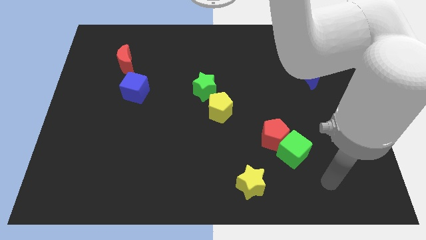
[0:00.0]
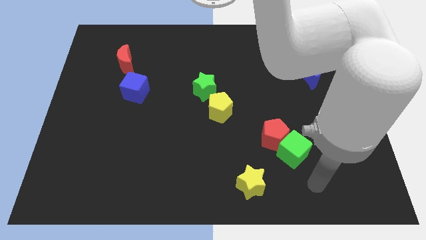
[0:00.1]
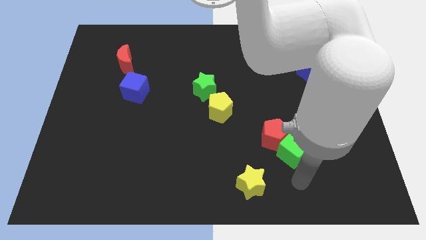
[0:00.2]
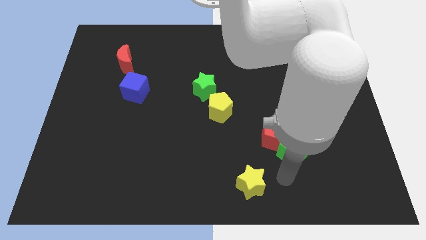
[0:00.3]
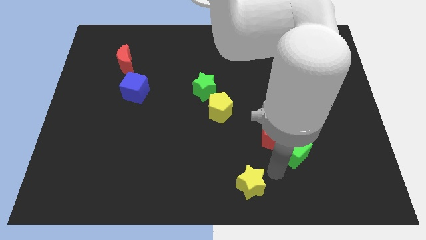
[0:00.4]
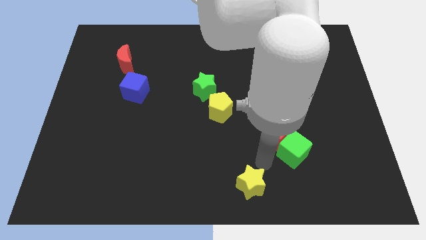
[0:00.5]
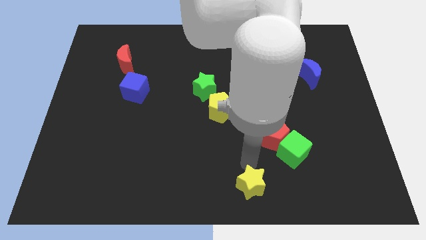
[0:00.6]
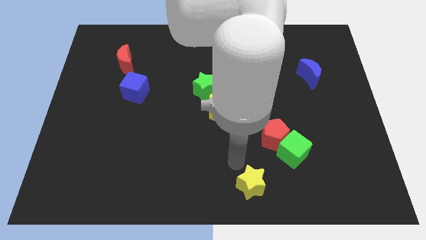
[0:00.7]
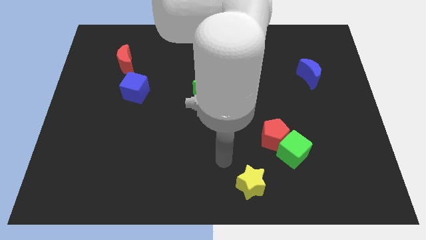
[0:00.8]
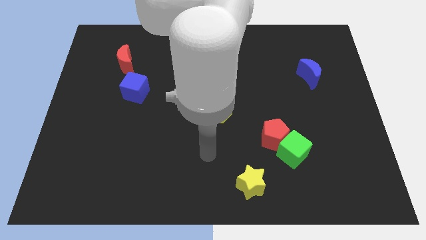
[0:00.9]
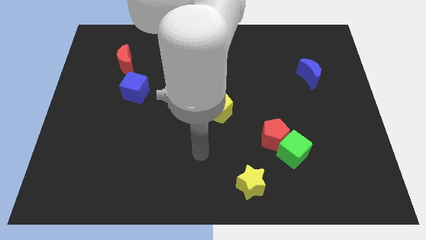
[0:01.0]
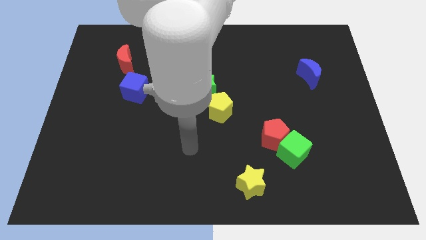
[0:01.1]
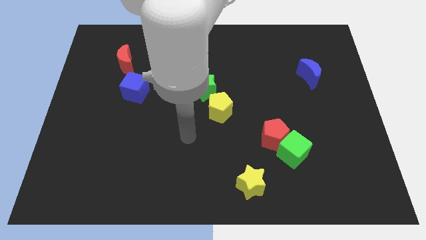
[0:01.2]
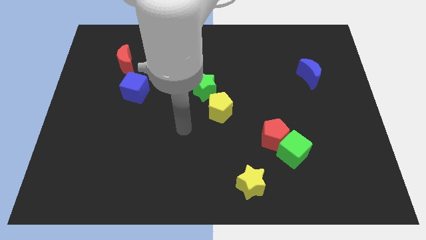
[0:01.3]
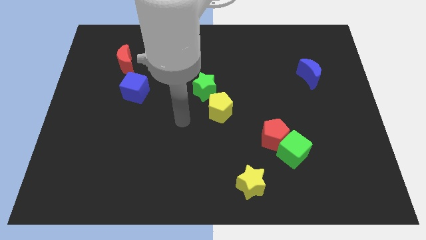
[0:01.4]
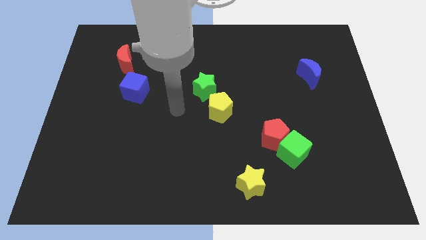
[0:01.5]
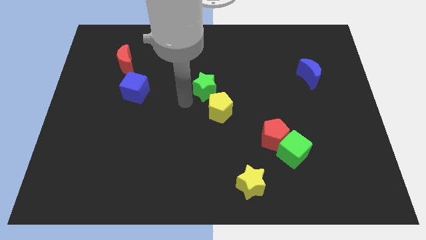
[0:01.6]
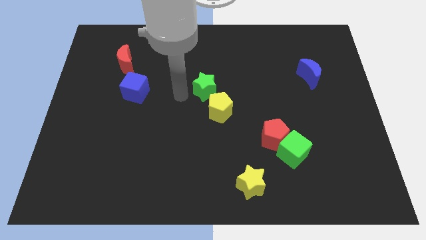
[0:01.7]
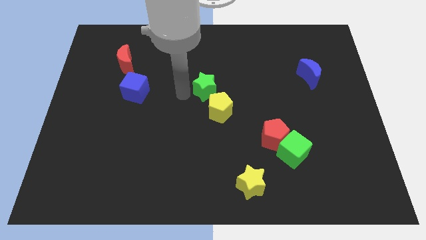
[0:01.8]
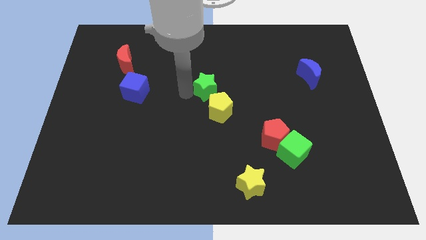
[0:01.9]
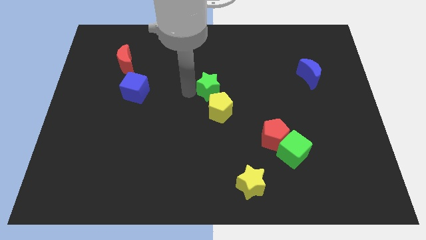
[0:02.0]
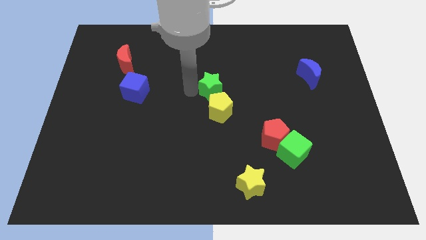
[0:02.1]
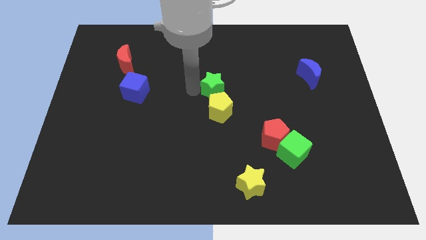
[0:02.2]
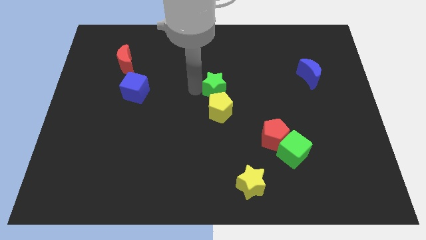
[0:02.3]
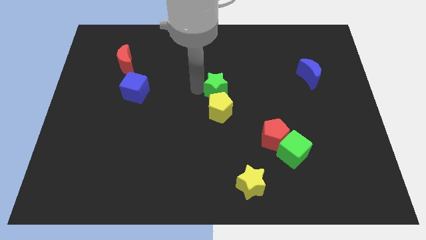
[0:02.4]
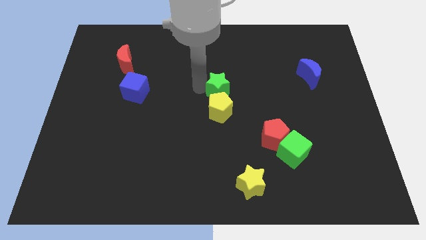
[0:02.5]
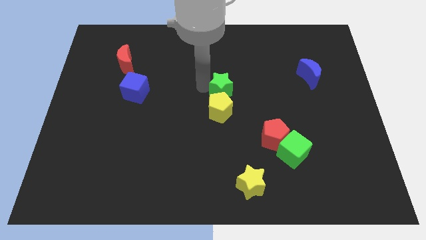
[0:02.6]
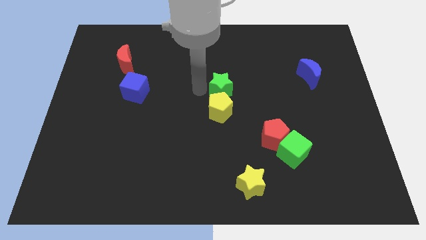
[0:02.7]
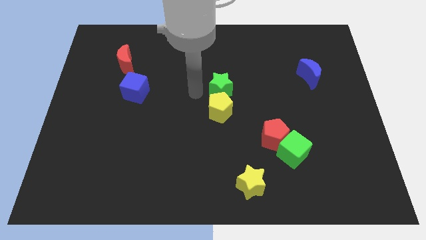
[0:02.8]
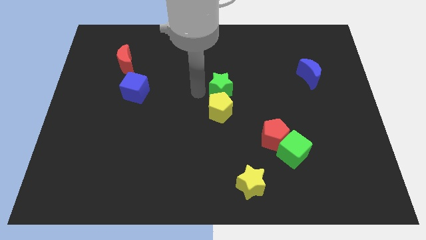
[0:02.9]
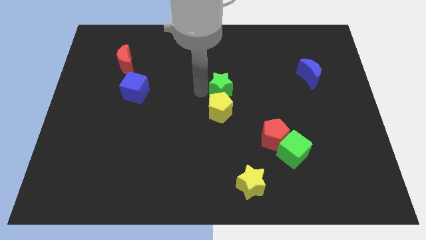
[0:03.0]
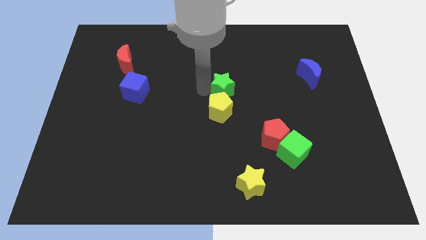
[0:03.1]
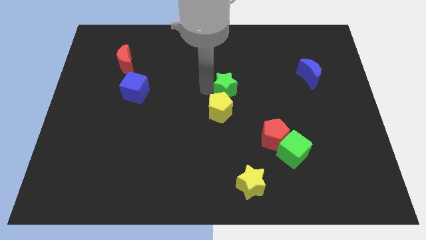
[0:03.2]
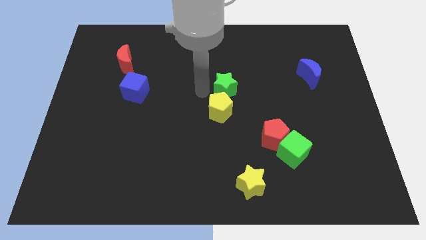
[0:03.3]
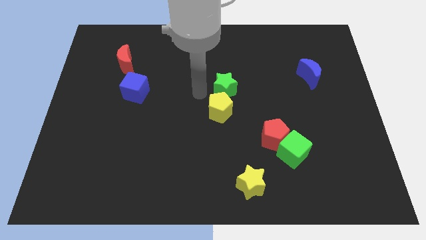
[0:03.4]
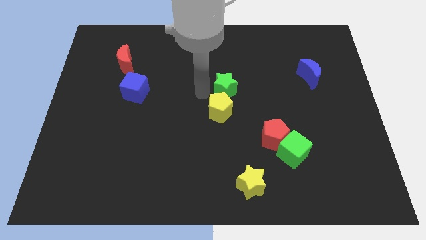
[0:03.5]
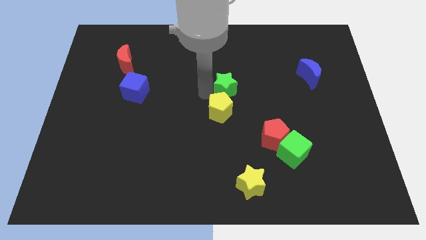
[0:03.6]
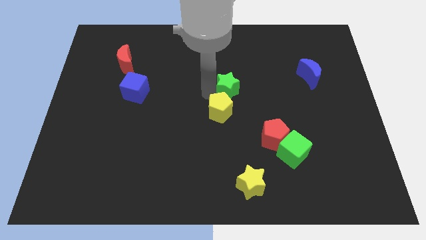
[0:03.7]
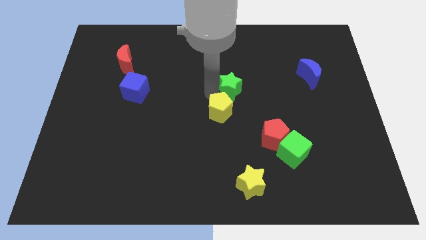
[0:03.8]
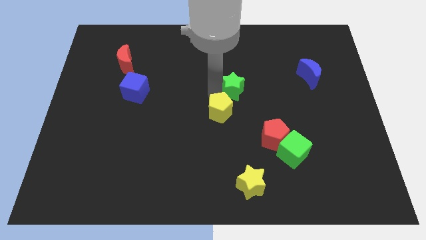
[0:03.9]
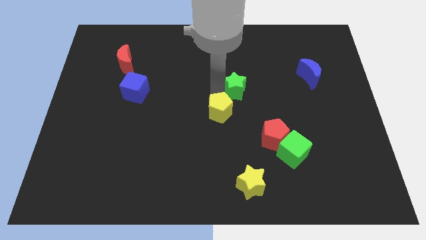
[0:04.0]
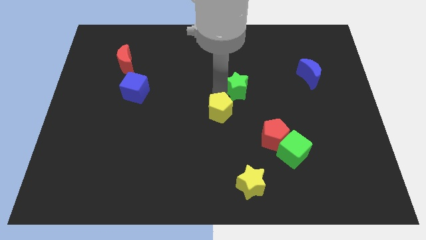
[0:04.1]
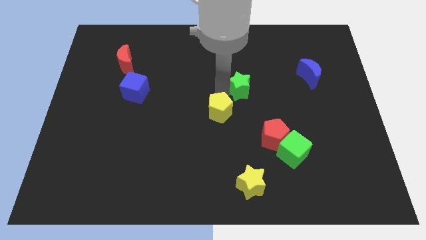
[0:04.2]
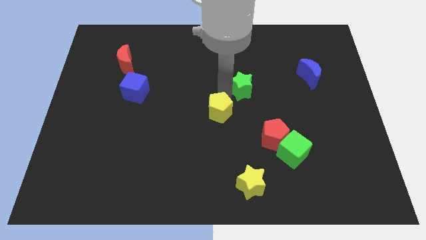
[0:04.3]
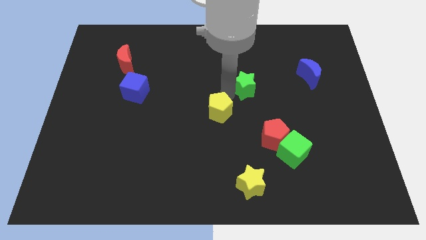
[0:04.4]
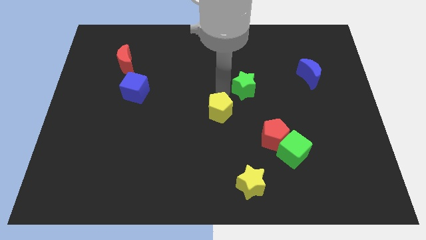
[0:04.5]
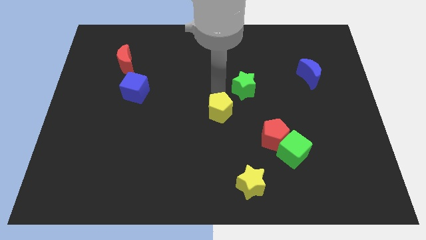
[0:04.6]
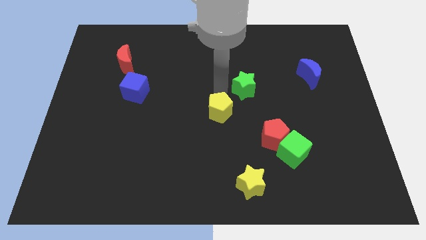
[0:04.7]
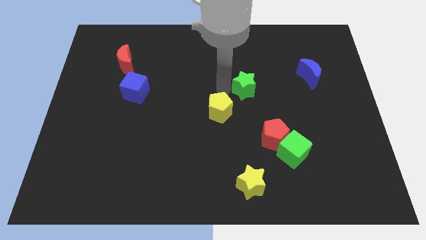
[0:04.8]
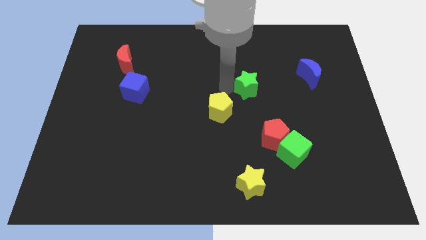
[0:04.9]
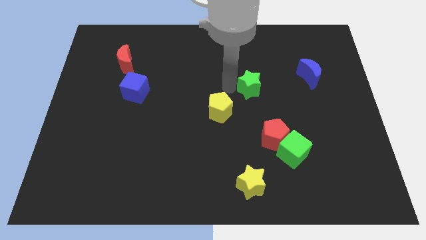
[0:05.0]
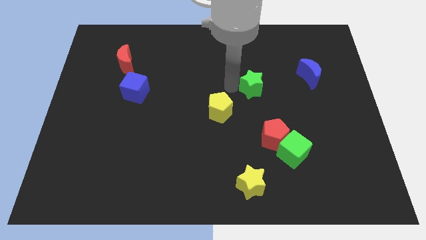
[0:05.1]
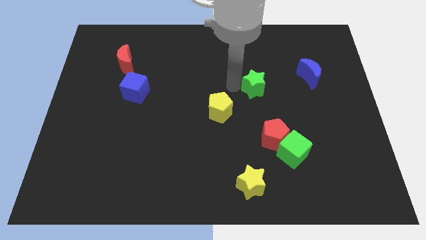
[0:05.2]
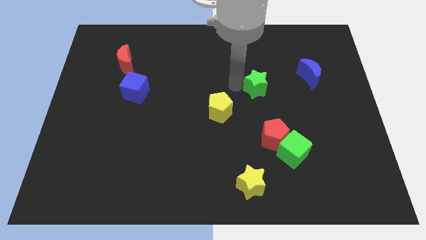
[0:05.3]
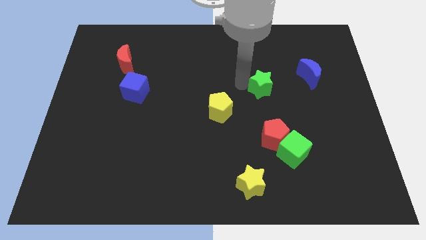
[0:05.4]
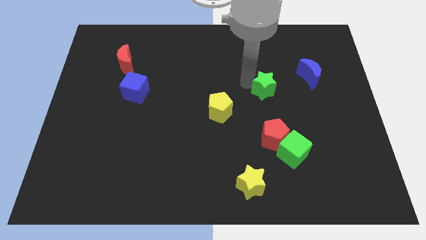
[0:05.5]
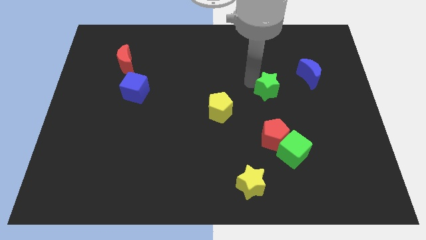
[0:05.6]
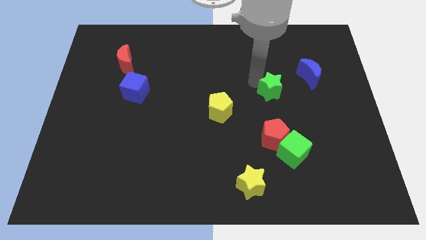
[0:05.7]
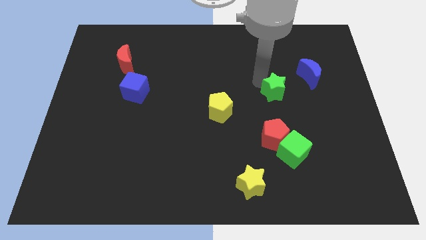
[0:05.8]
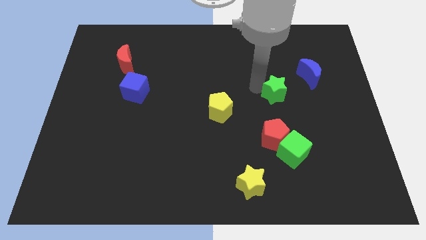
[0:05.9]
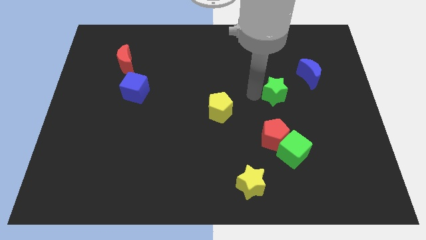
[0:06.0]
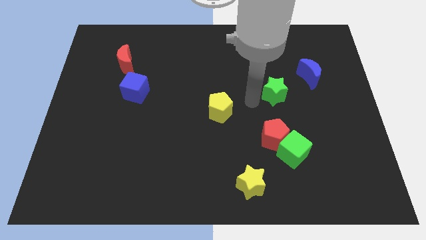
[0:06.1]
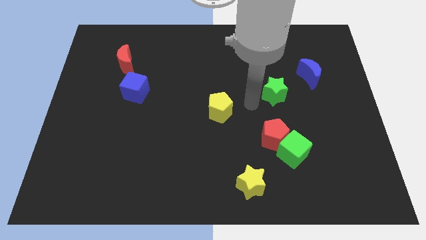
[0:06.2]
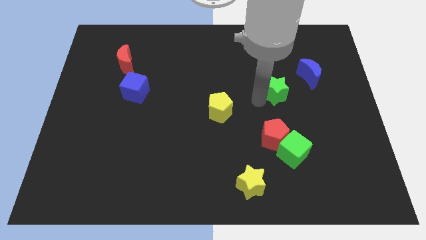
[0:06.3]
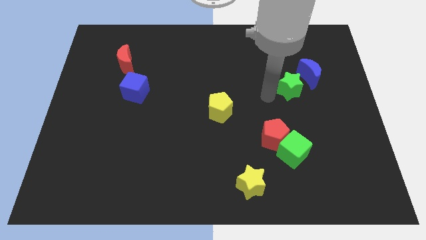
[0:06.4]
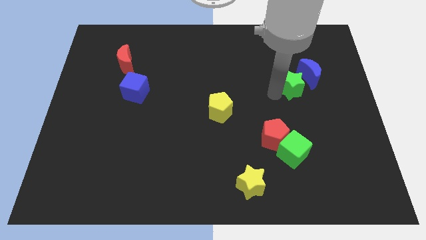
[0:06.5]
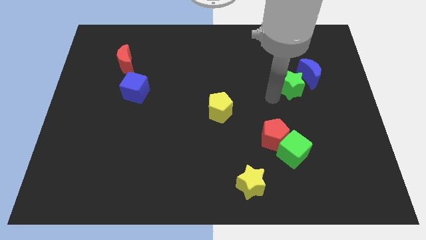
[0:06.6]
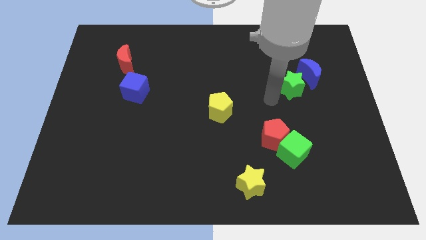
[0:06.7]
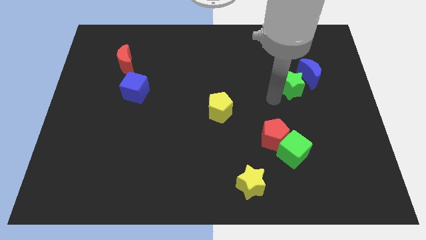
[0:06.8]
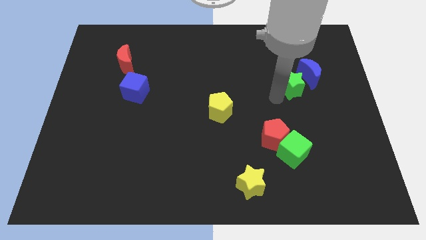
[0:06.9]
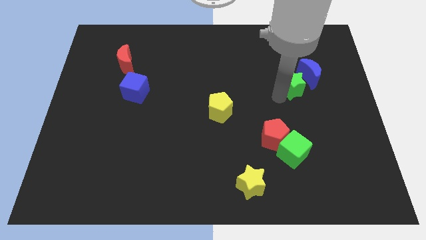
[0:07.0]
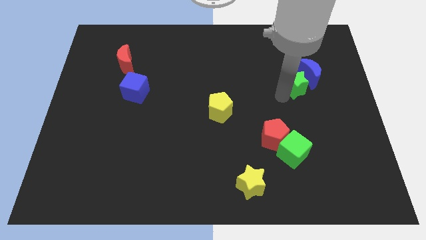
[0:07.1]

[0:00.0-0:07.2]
push the green star next to the blue moon

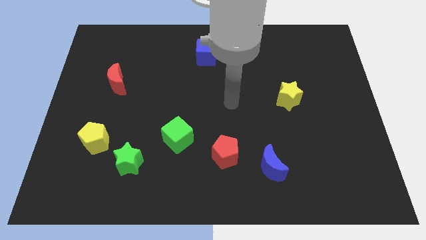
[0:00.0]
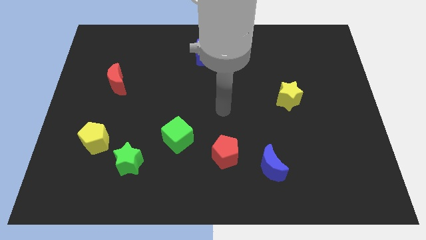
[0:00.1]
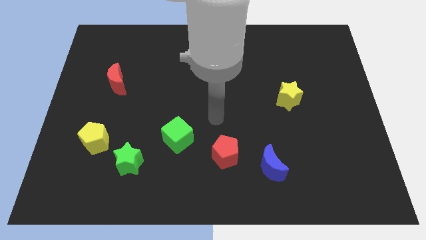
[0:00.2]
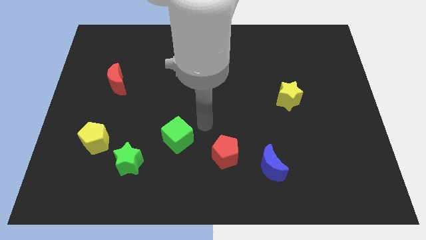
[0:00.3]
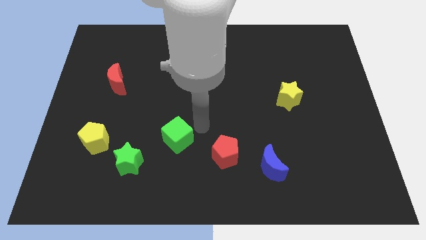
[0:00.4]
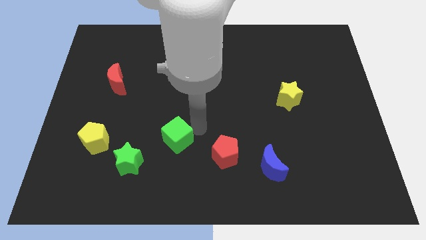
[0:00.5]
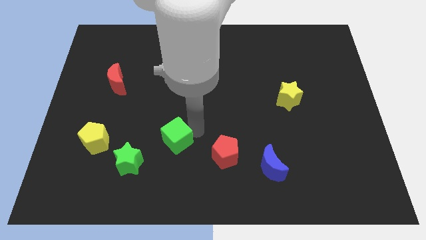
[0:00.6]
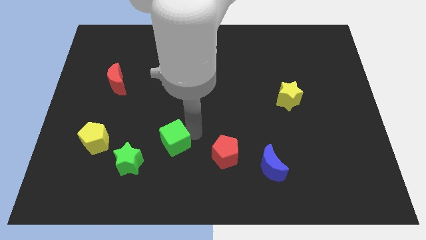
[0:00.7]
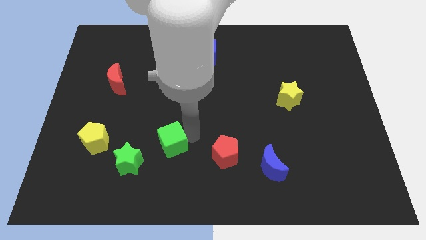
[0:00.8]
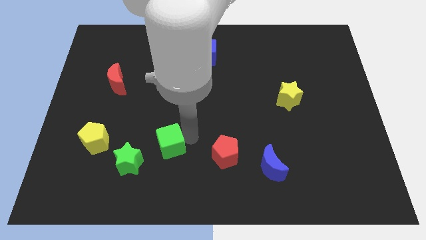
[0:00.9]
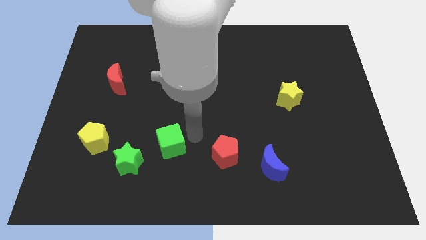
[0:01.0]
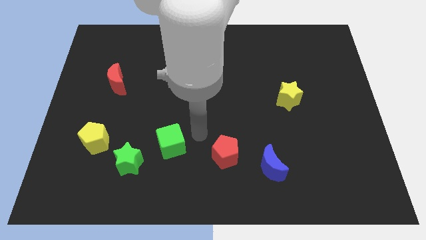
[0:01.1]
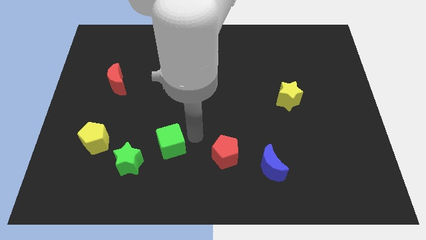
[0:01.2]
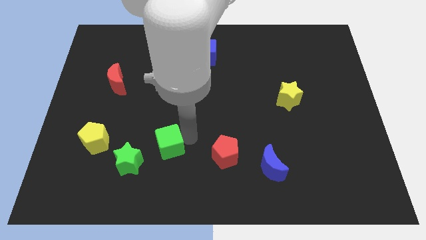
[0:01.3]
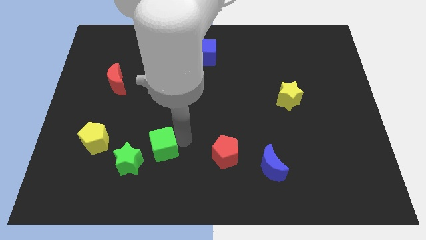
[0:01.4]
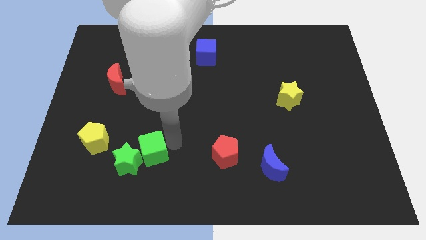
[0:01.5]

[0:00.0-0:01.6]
slide the green cube next to the green star
